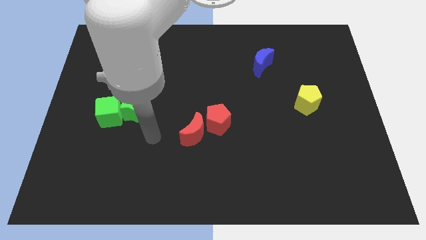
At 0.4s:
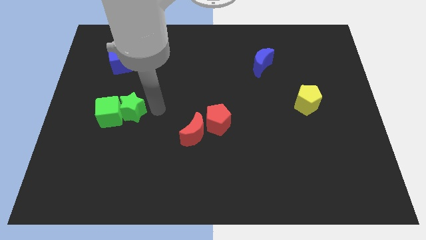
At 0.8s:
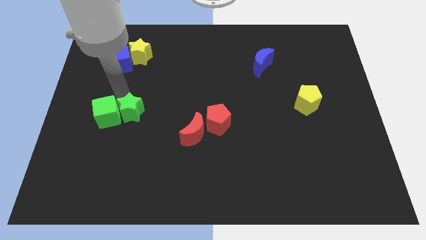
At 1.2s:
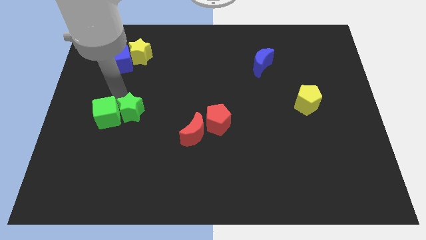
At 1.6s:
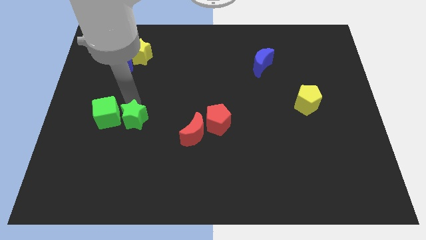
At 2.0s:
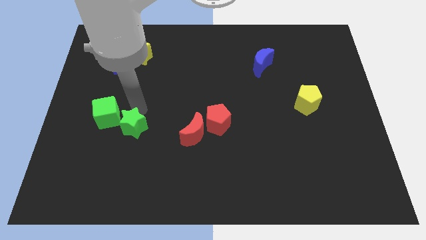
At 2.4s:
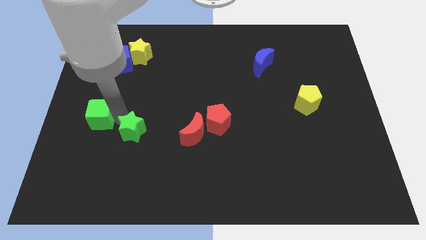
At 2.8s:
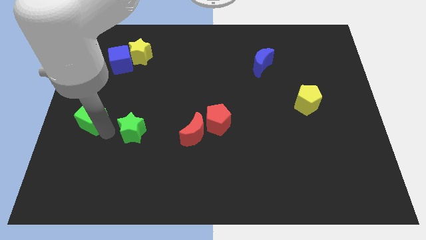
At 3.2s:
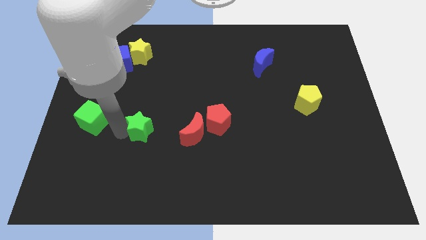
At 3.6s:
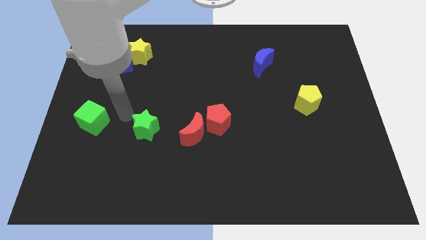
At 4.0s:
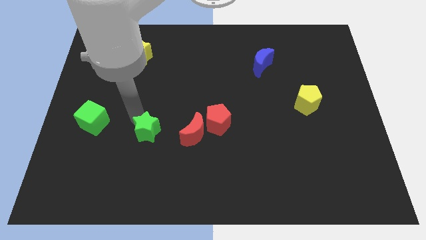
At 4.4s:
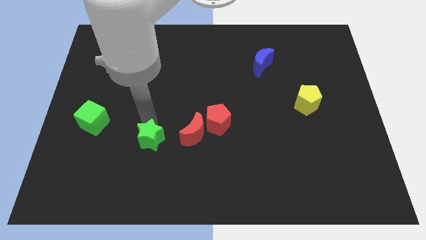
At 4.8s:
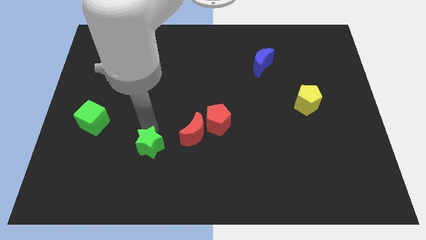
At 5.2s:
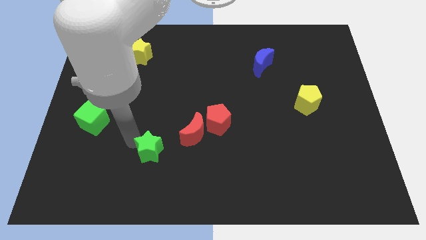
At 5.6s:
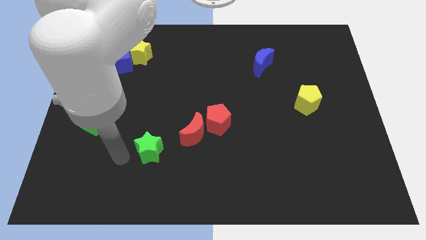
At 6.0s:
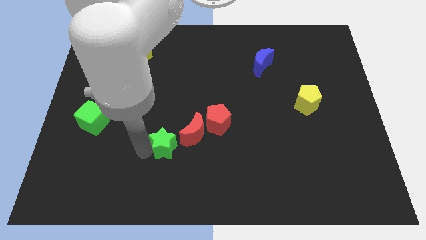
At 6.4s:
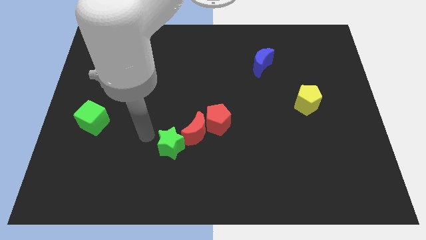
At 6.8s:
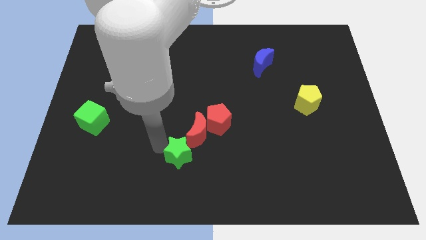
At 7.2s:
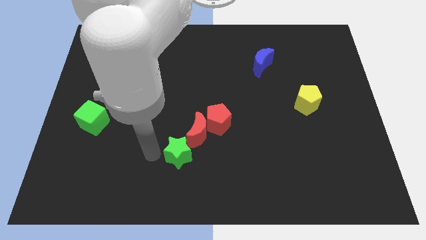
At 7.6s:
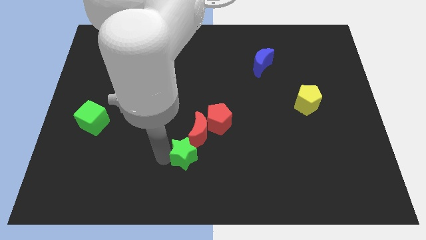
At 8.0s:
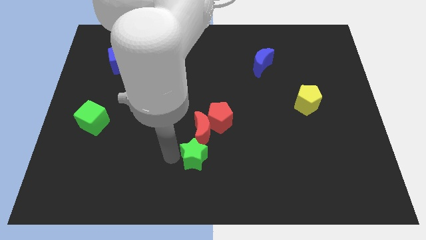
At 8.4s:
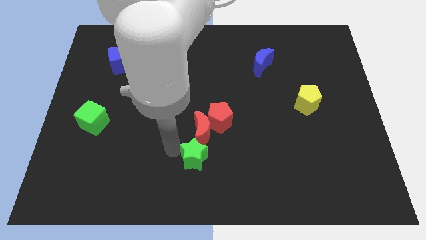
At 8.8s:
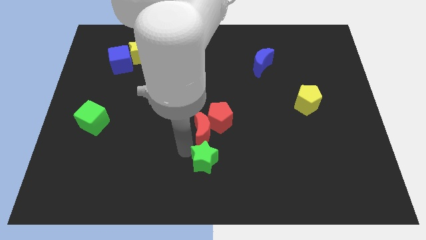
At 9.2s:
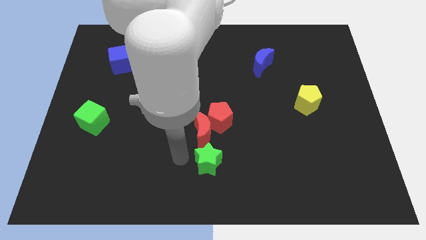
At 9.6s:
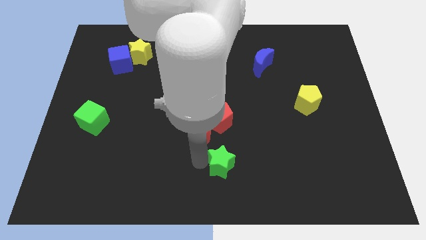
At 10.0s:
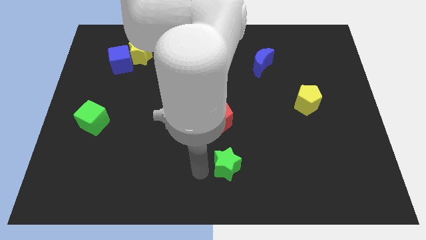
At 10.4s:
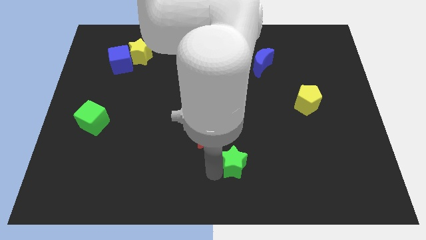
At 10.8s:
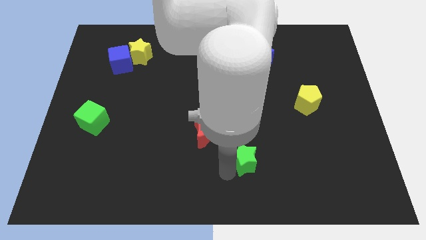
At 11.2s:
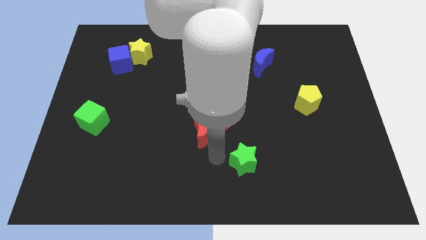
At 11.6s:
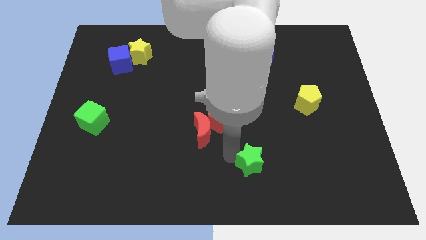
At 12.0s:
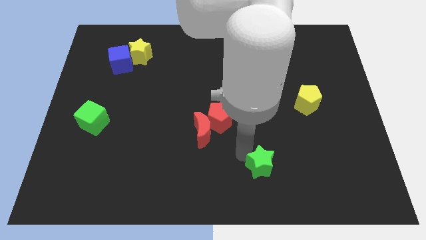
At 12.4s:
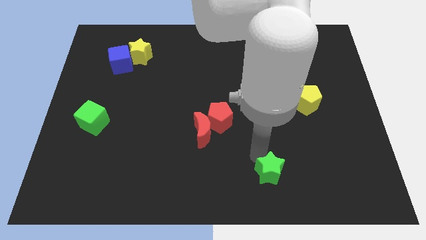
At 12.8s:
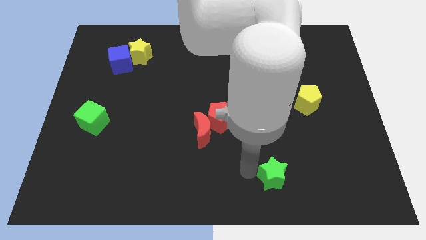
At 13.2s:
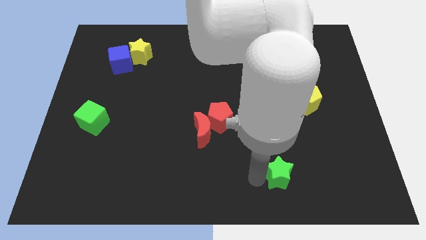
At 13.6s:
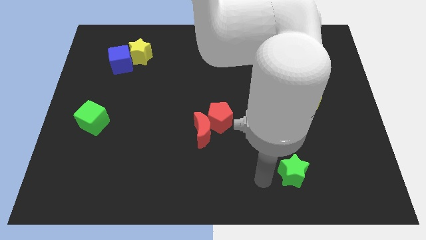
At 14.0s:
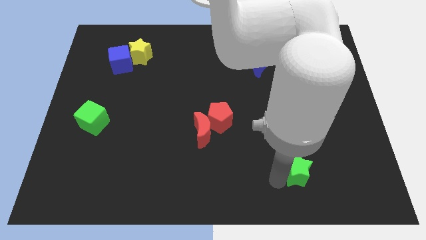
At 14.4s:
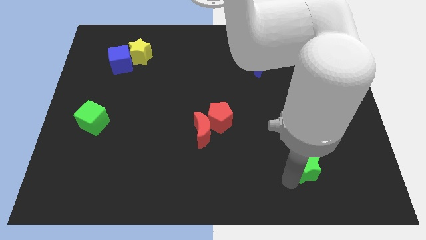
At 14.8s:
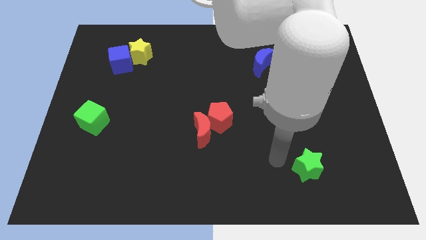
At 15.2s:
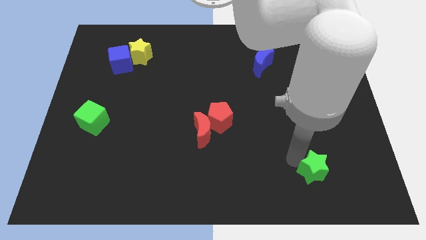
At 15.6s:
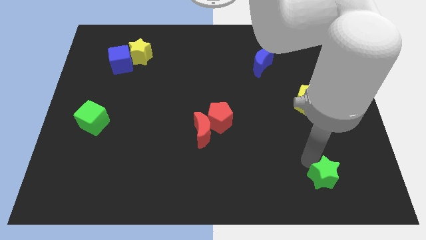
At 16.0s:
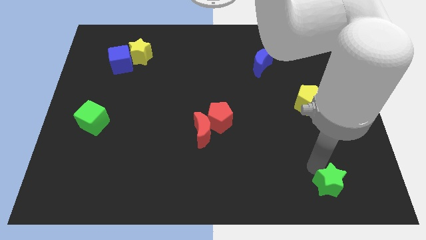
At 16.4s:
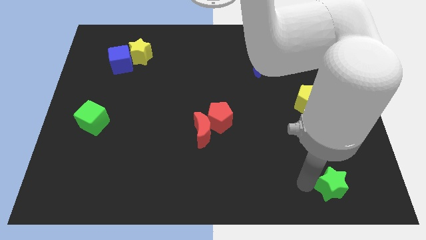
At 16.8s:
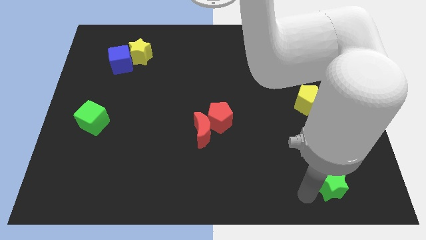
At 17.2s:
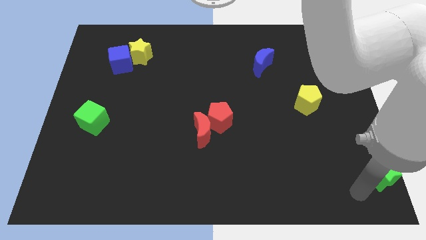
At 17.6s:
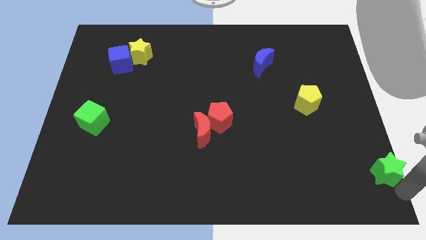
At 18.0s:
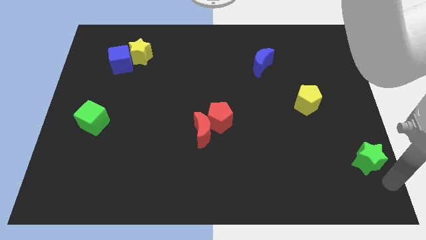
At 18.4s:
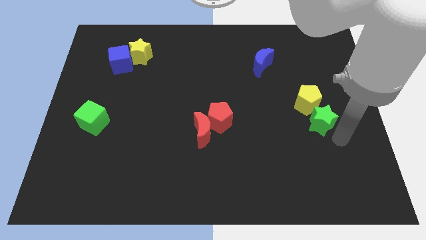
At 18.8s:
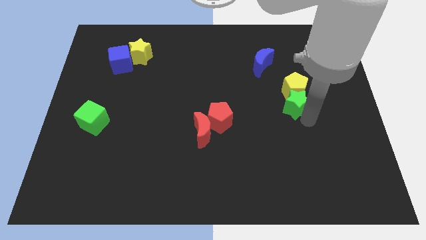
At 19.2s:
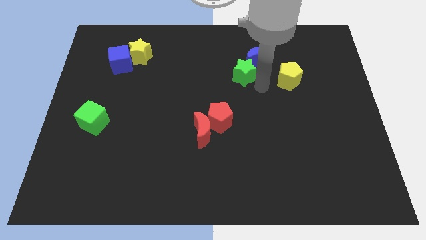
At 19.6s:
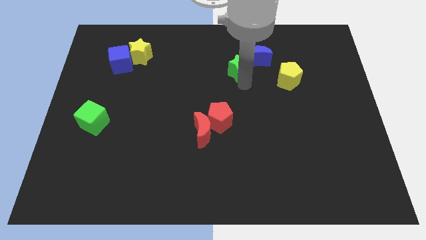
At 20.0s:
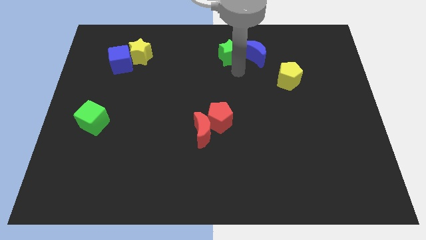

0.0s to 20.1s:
put the green star to the top side

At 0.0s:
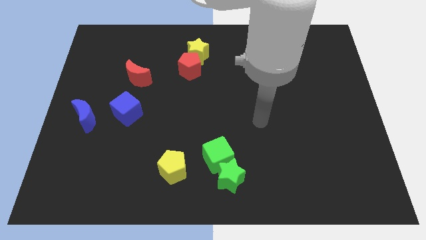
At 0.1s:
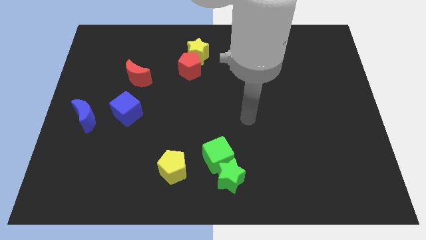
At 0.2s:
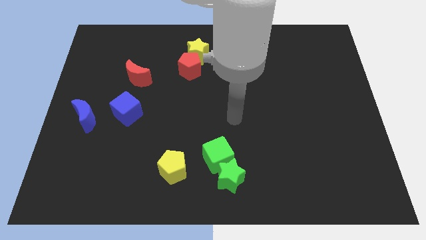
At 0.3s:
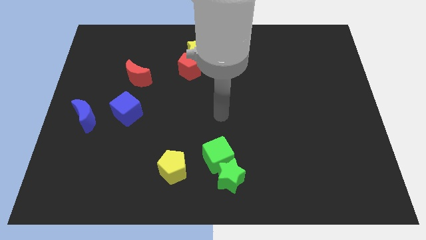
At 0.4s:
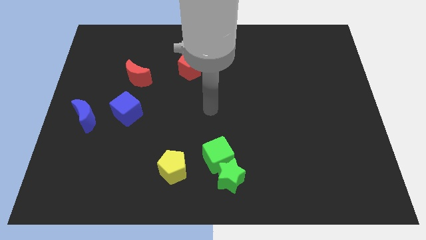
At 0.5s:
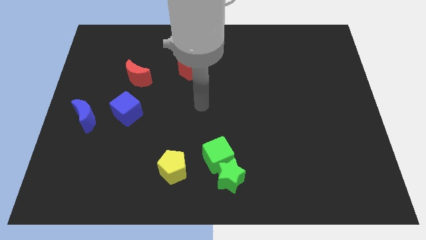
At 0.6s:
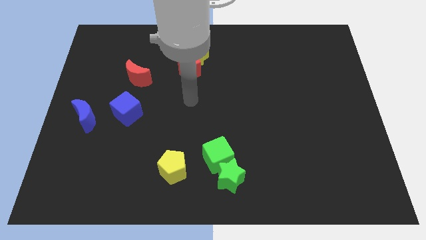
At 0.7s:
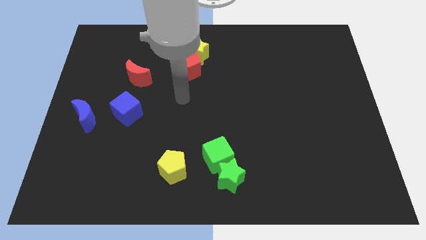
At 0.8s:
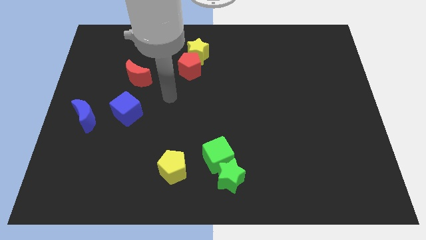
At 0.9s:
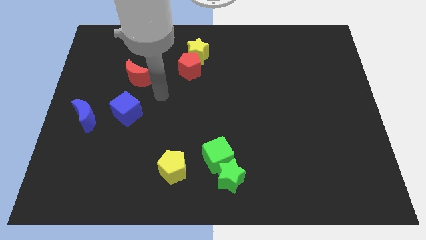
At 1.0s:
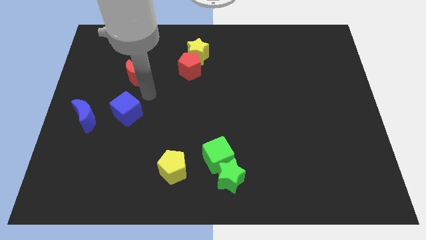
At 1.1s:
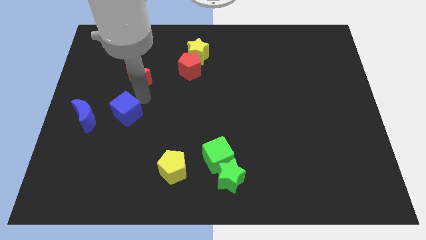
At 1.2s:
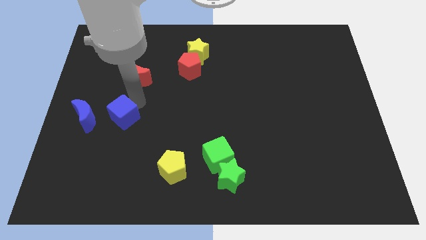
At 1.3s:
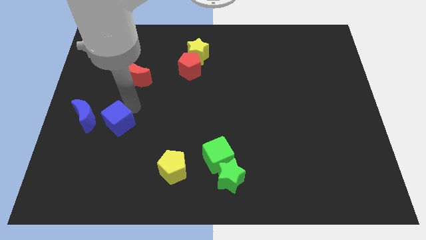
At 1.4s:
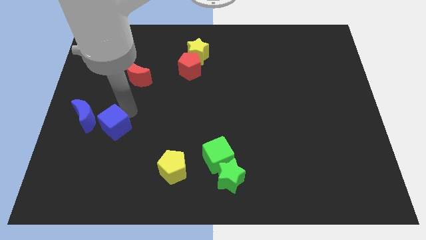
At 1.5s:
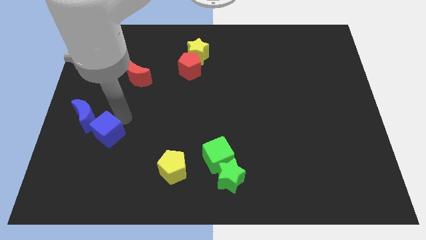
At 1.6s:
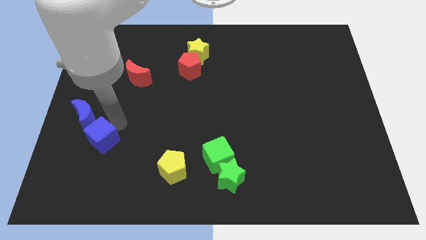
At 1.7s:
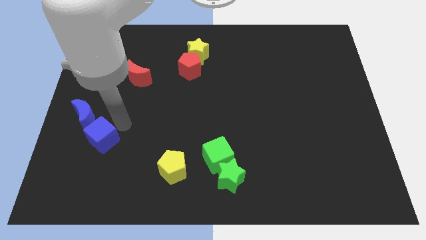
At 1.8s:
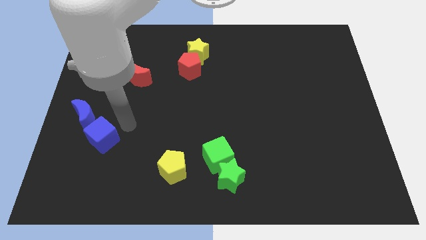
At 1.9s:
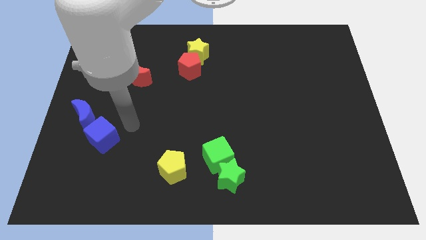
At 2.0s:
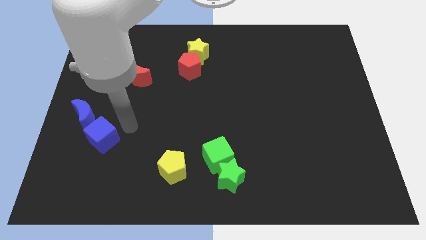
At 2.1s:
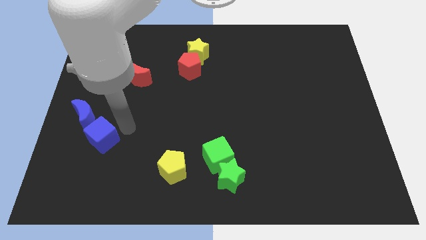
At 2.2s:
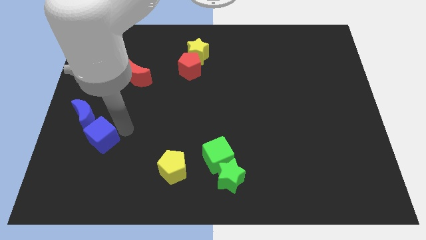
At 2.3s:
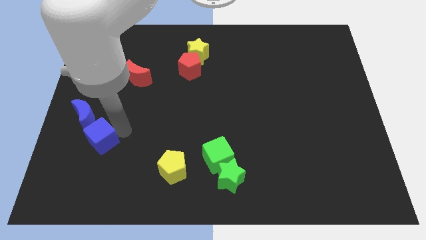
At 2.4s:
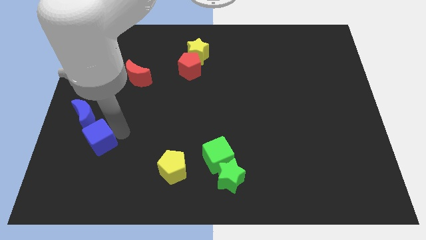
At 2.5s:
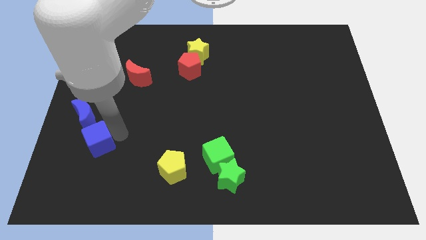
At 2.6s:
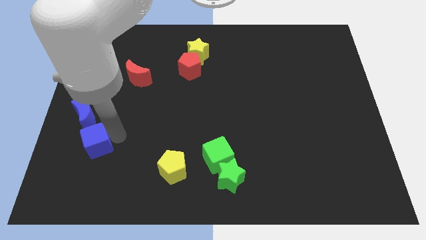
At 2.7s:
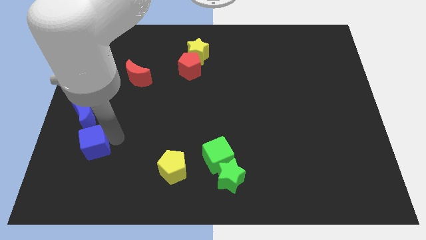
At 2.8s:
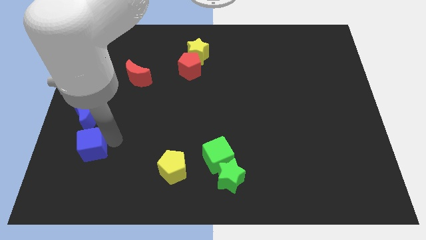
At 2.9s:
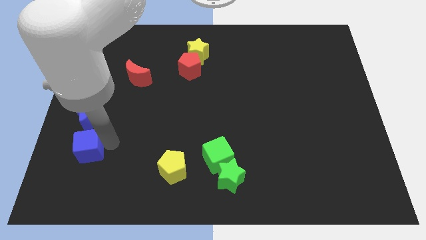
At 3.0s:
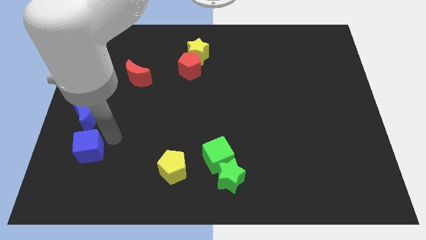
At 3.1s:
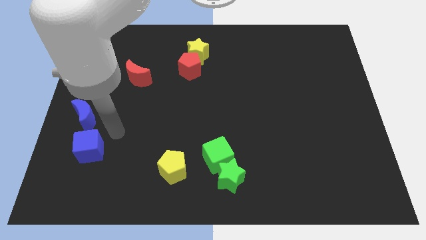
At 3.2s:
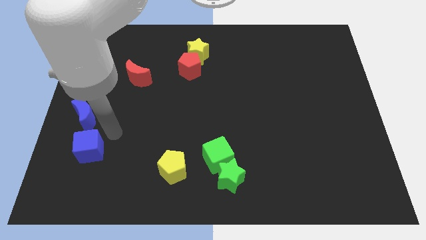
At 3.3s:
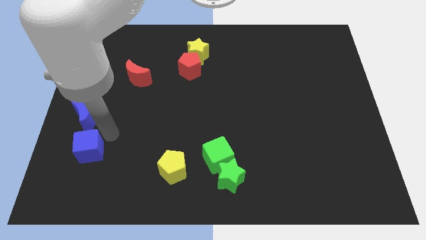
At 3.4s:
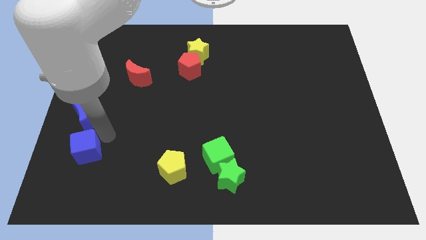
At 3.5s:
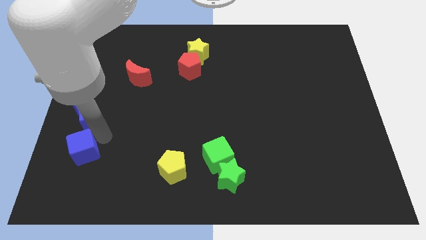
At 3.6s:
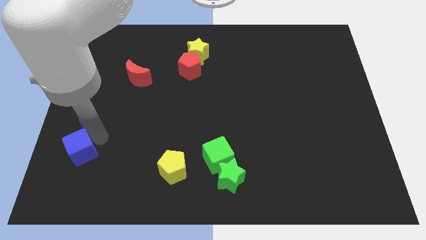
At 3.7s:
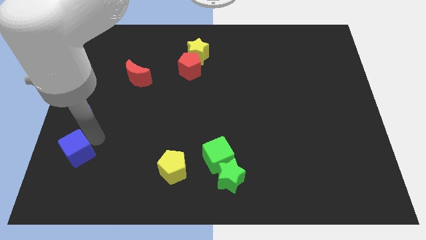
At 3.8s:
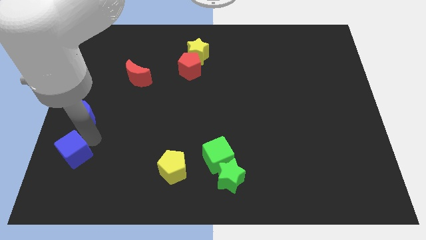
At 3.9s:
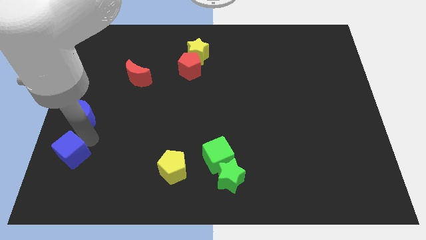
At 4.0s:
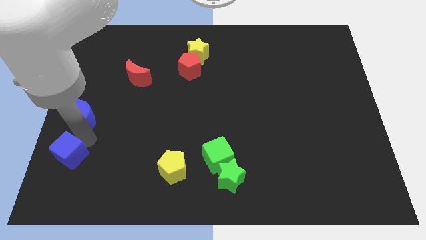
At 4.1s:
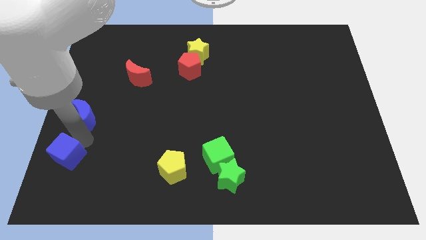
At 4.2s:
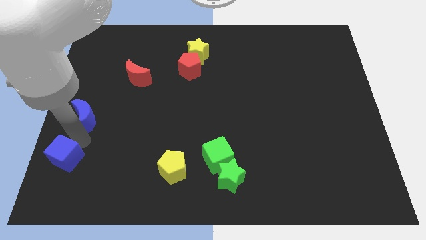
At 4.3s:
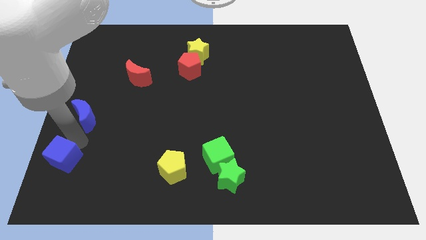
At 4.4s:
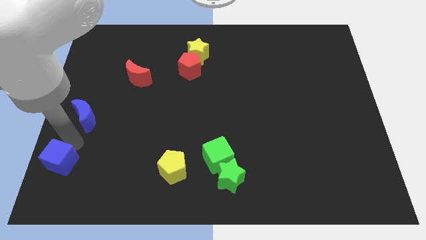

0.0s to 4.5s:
push the blue cube to the lower left corner
